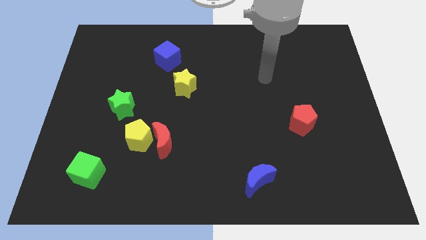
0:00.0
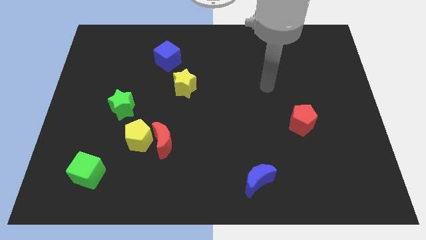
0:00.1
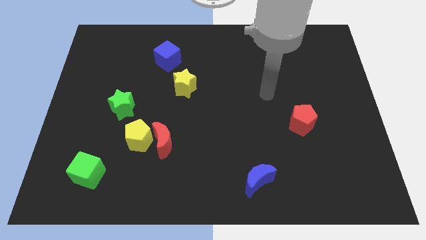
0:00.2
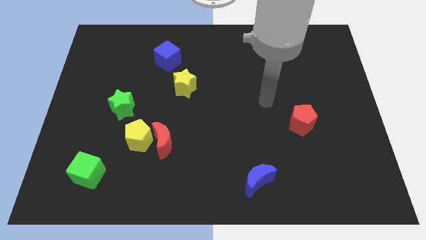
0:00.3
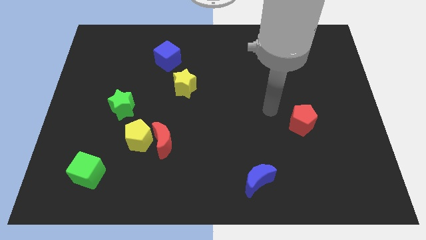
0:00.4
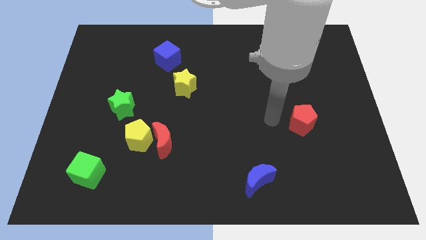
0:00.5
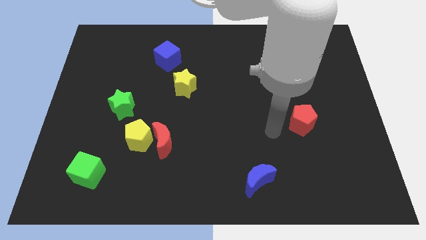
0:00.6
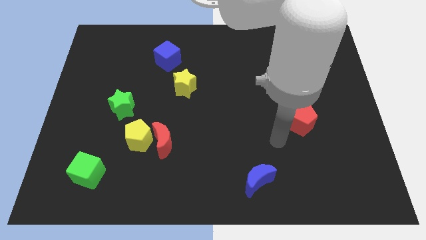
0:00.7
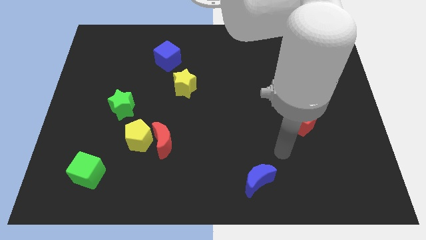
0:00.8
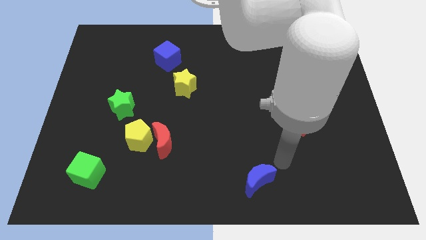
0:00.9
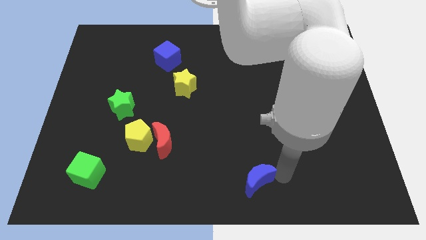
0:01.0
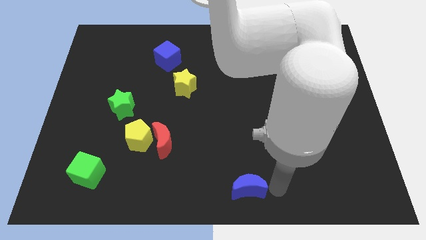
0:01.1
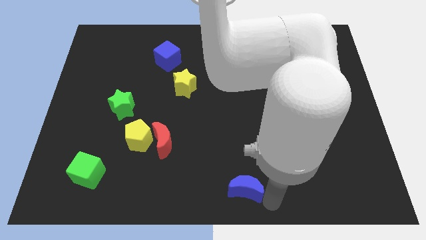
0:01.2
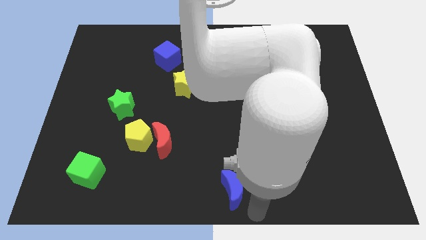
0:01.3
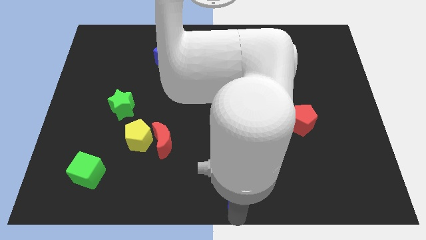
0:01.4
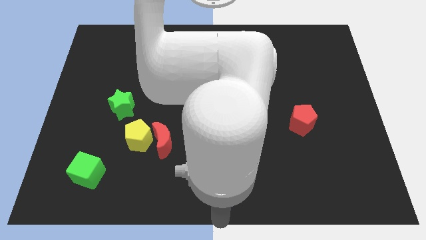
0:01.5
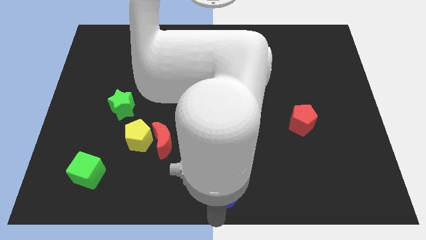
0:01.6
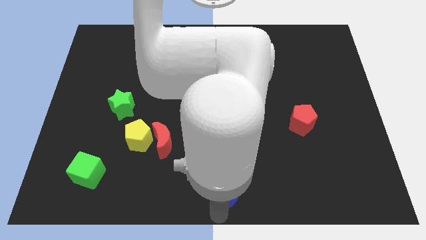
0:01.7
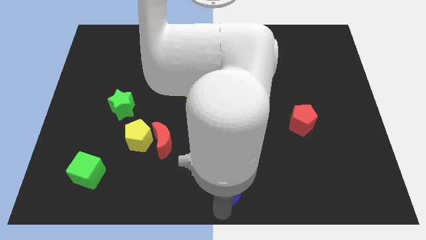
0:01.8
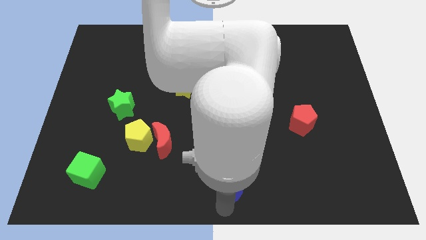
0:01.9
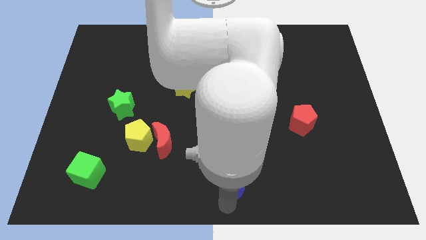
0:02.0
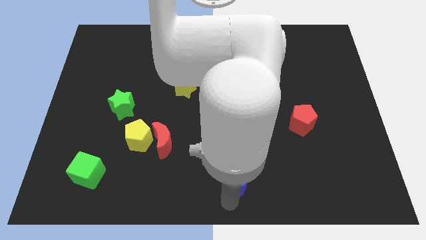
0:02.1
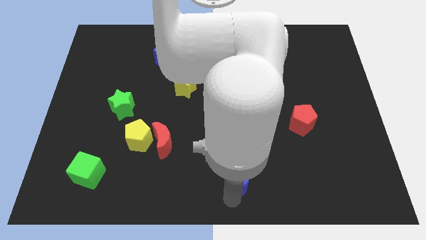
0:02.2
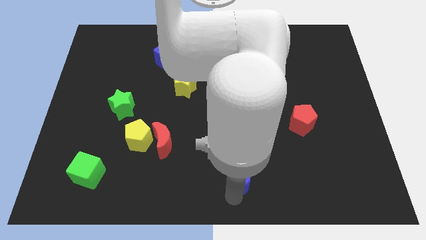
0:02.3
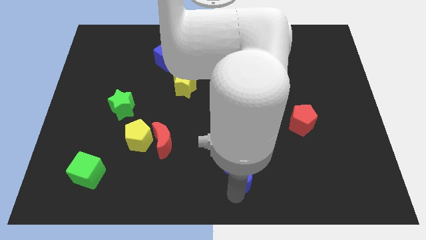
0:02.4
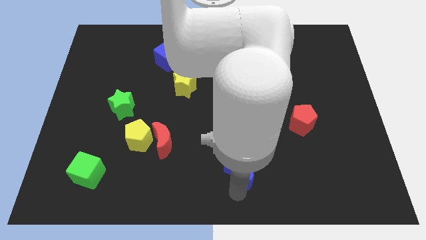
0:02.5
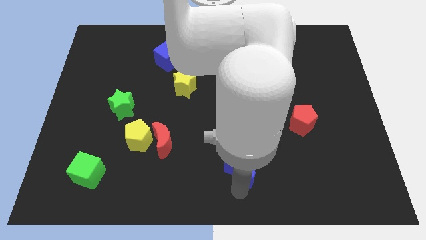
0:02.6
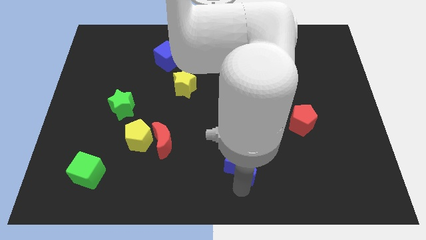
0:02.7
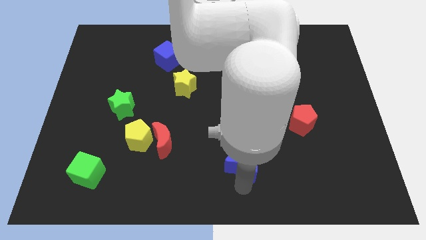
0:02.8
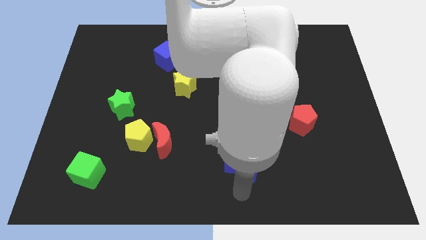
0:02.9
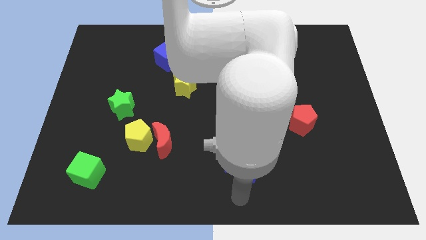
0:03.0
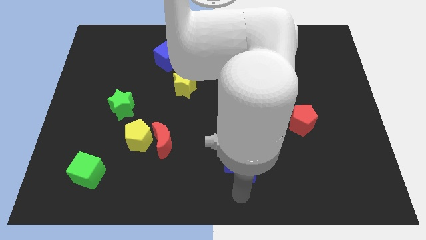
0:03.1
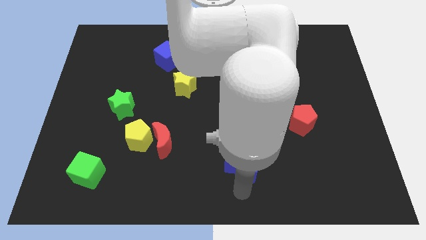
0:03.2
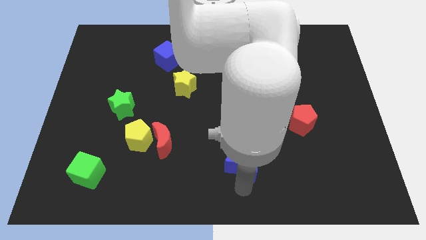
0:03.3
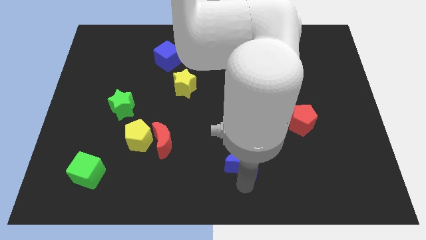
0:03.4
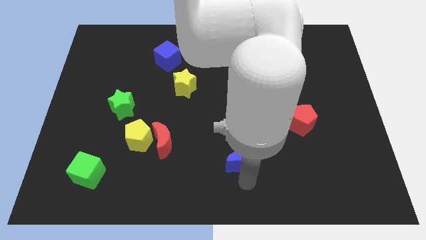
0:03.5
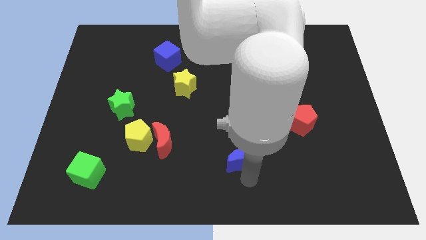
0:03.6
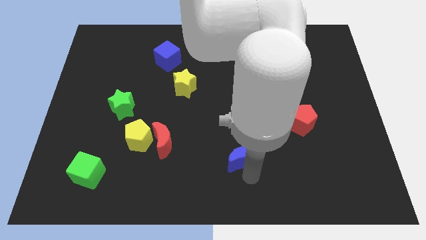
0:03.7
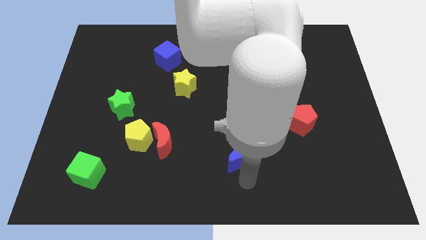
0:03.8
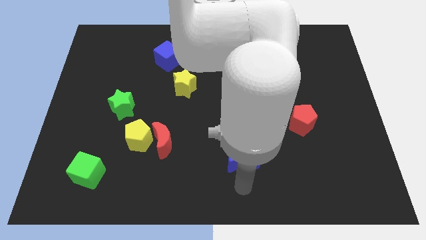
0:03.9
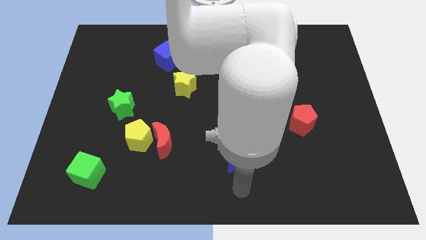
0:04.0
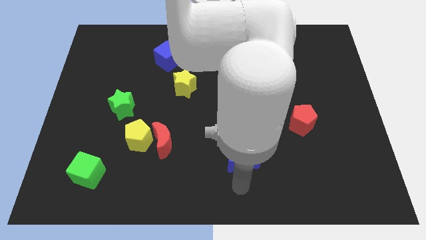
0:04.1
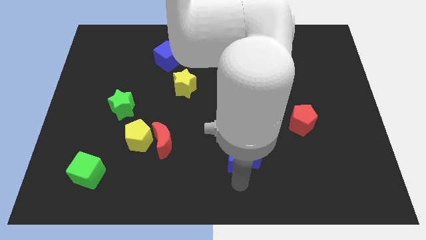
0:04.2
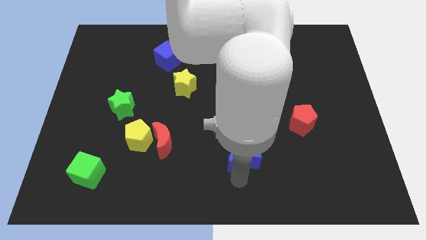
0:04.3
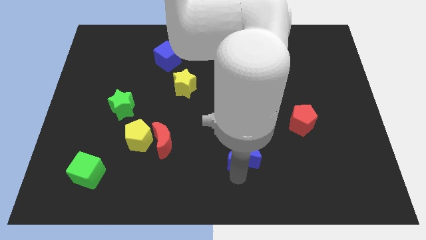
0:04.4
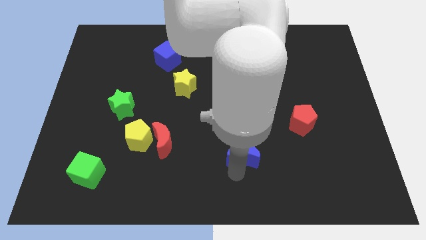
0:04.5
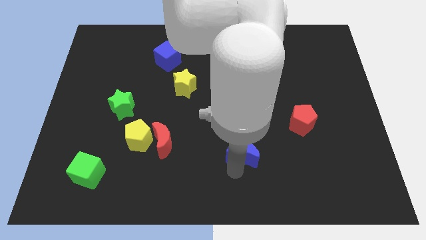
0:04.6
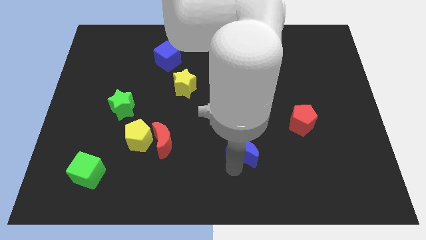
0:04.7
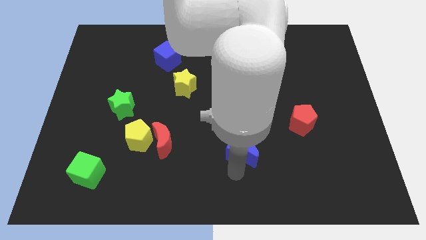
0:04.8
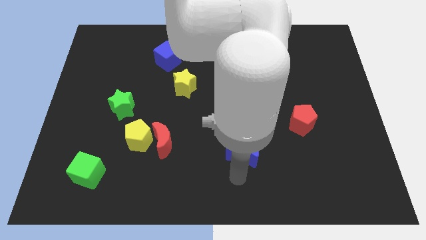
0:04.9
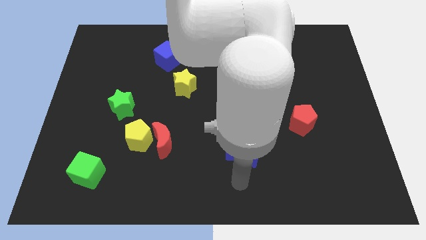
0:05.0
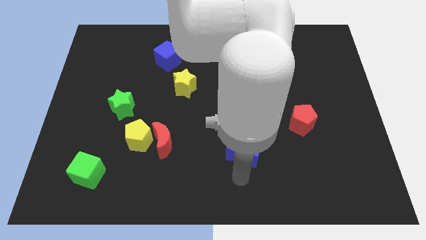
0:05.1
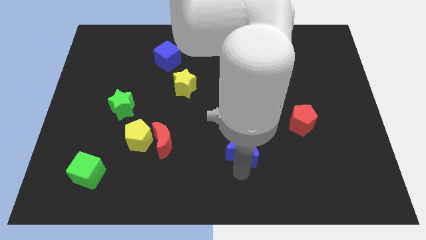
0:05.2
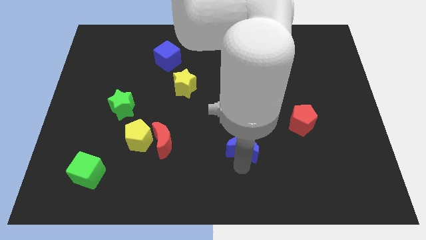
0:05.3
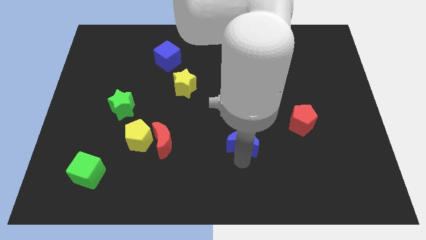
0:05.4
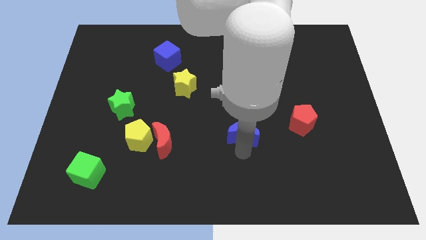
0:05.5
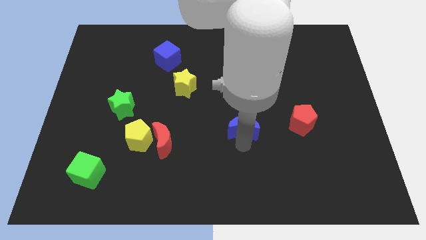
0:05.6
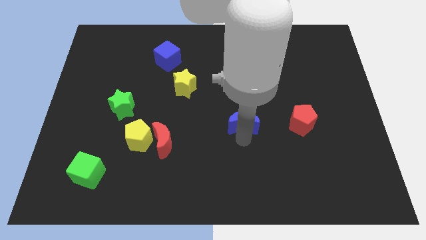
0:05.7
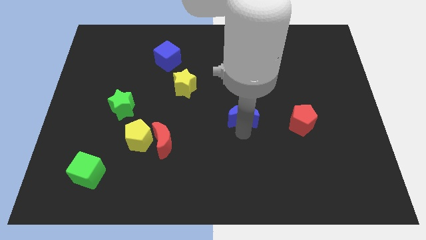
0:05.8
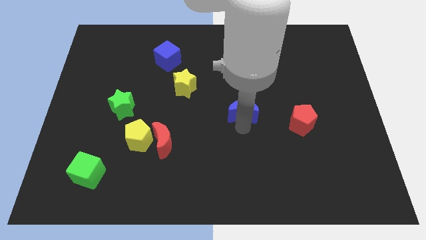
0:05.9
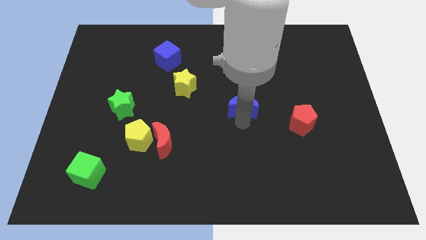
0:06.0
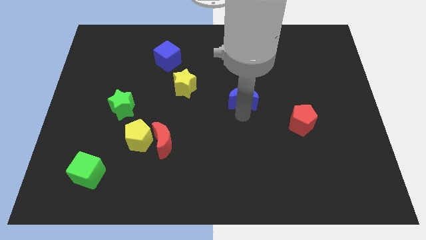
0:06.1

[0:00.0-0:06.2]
slide the blue moon upwards

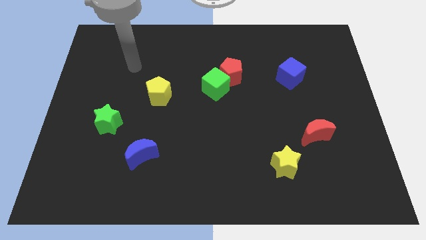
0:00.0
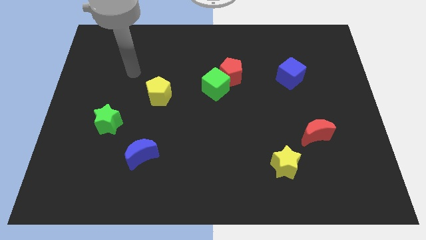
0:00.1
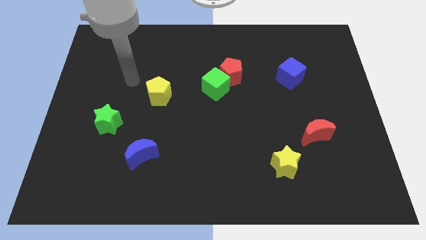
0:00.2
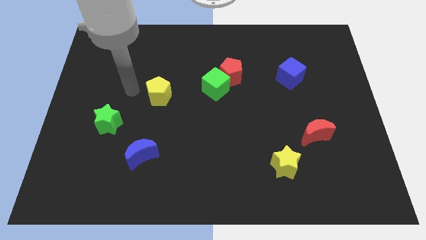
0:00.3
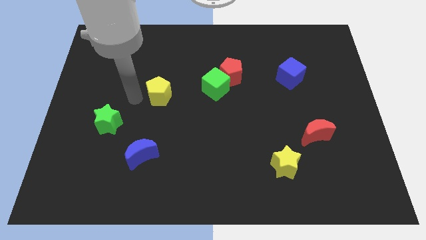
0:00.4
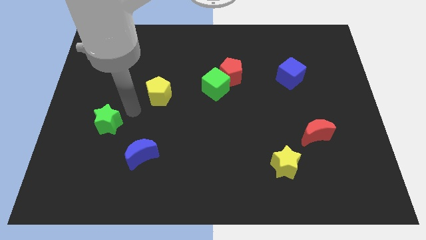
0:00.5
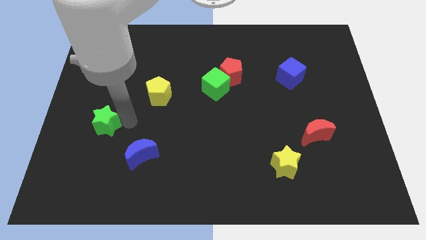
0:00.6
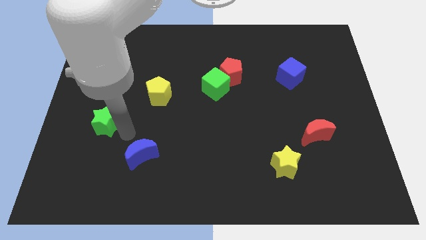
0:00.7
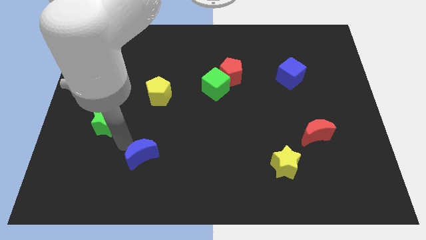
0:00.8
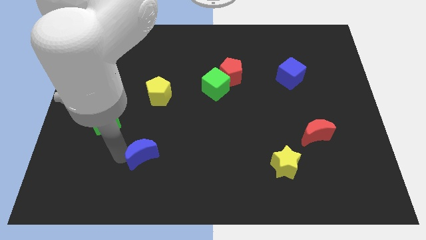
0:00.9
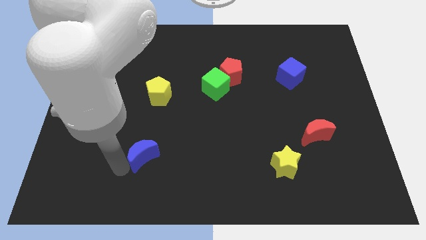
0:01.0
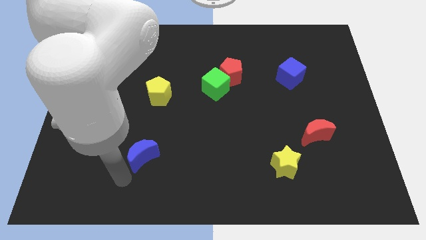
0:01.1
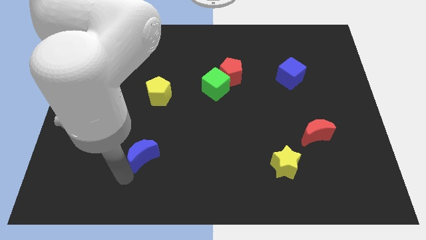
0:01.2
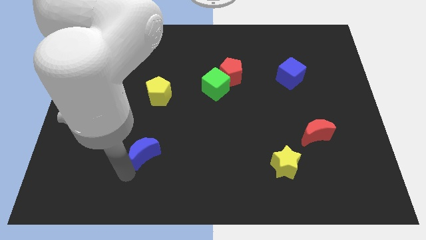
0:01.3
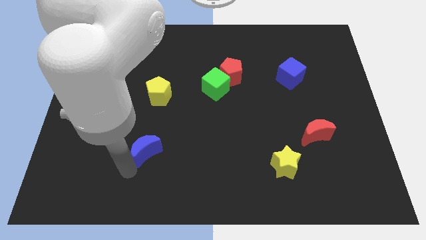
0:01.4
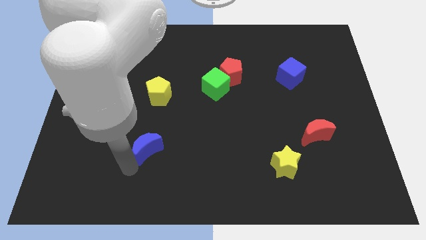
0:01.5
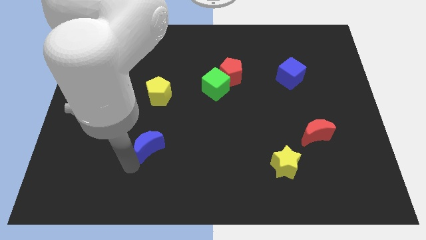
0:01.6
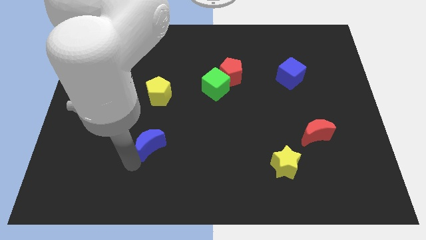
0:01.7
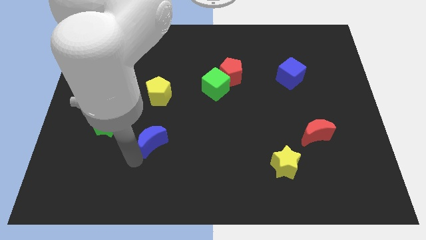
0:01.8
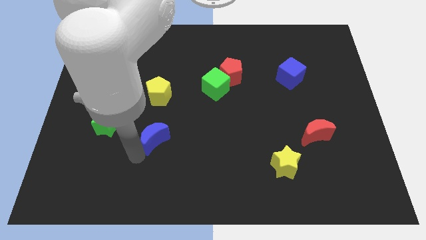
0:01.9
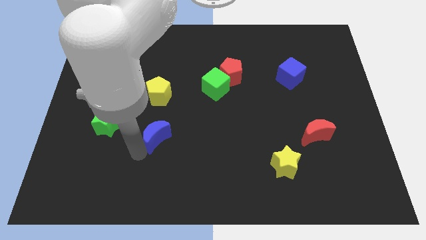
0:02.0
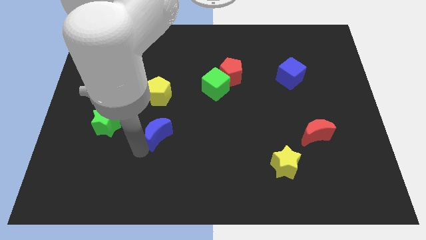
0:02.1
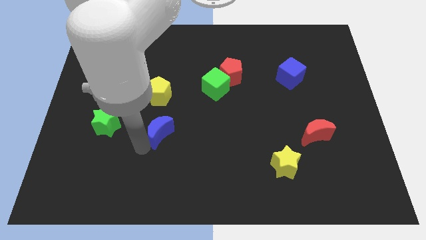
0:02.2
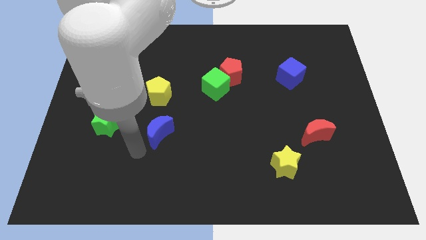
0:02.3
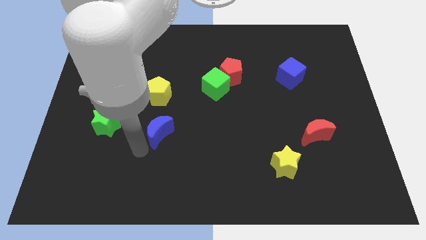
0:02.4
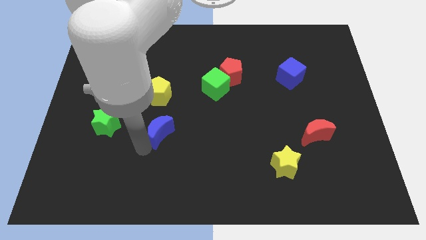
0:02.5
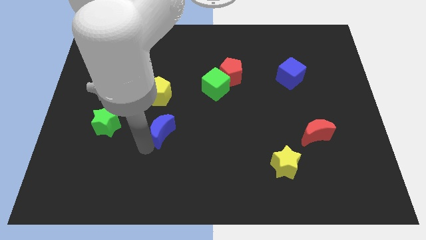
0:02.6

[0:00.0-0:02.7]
slightly move the blue moon up and then right
